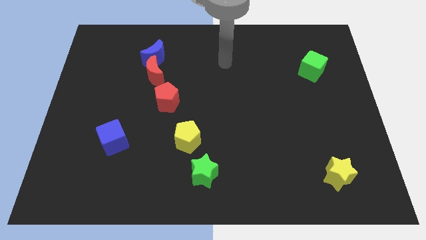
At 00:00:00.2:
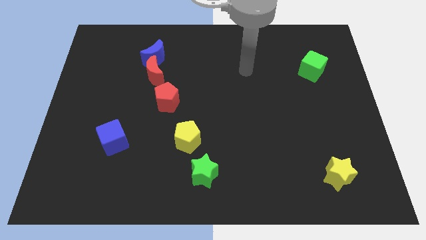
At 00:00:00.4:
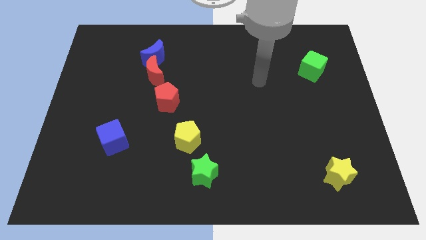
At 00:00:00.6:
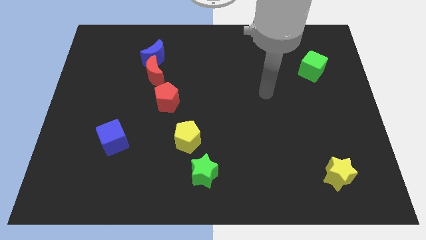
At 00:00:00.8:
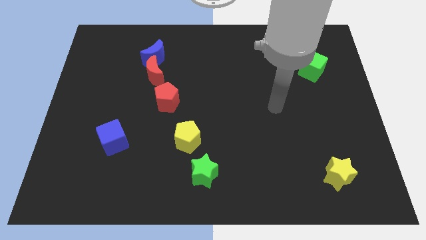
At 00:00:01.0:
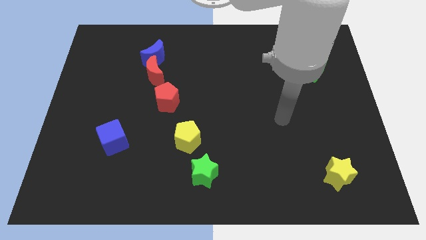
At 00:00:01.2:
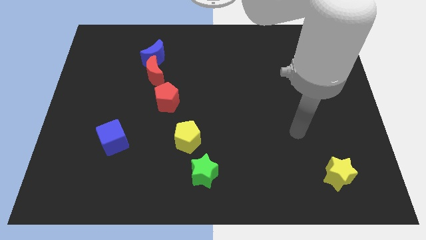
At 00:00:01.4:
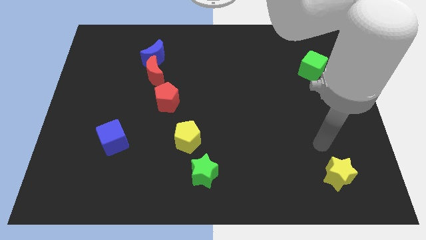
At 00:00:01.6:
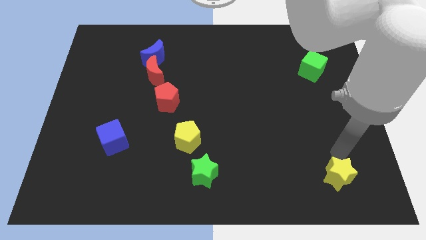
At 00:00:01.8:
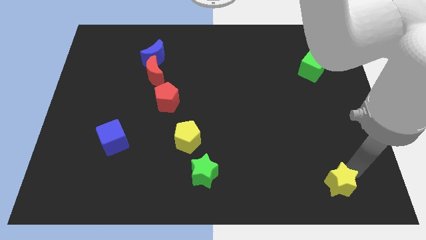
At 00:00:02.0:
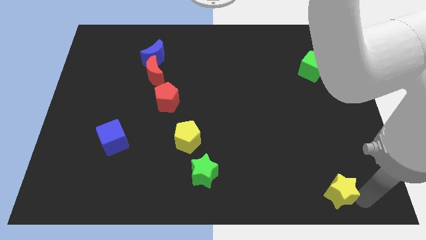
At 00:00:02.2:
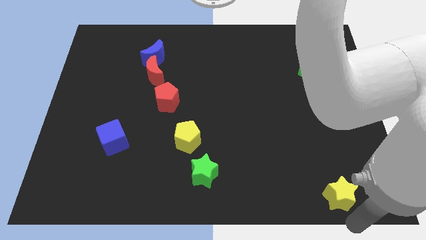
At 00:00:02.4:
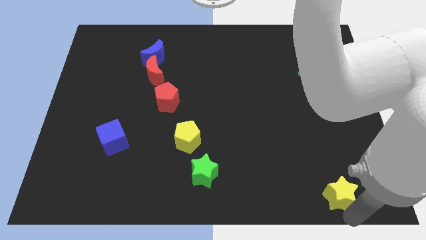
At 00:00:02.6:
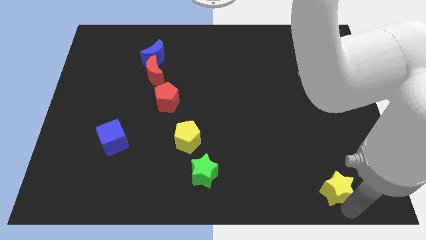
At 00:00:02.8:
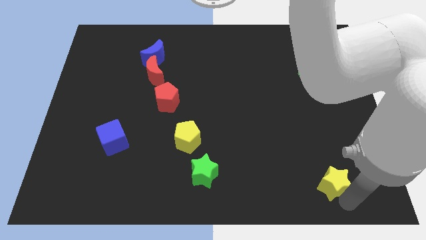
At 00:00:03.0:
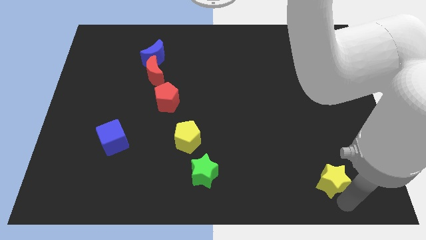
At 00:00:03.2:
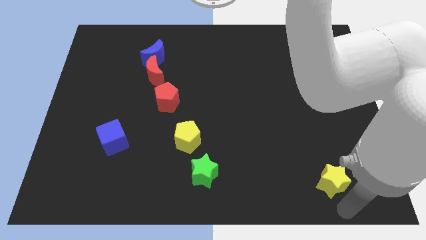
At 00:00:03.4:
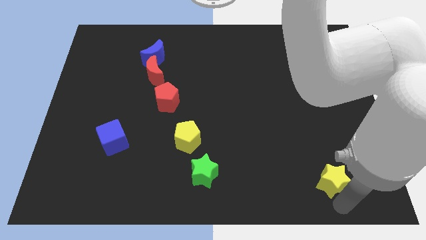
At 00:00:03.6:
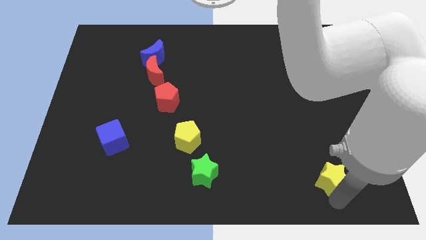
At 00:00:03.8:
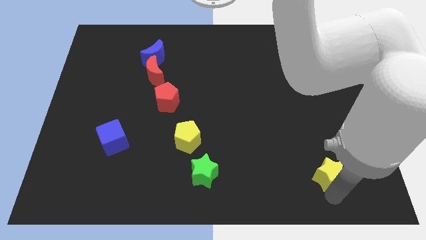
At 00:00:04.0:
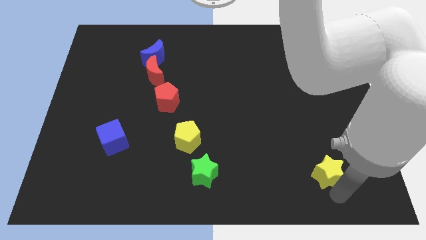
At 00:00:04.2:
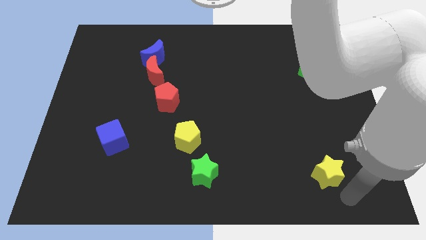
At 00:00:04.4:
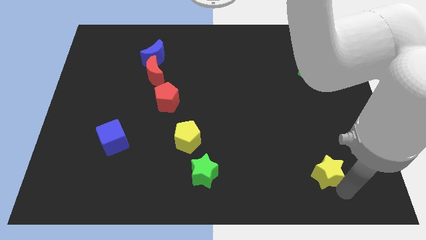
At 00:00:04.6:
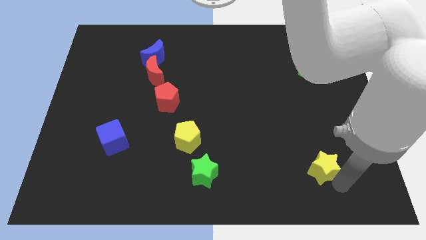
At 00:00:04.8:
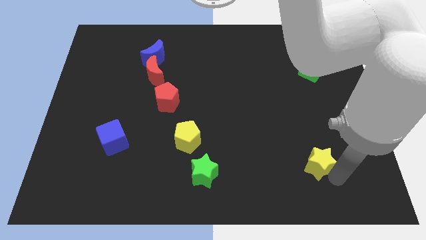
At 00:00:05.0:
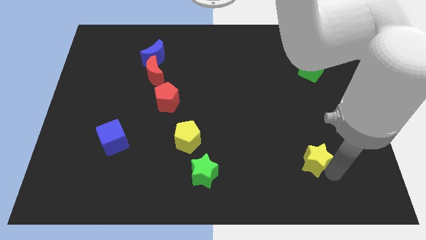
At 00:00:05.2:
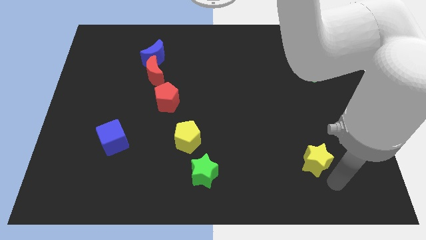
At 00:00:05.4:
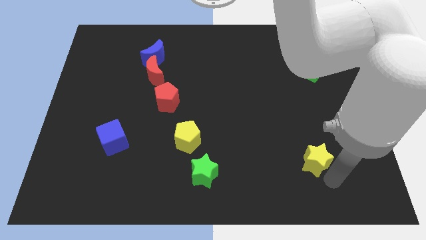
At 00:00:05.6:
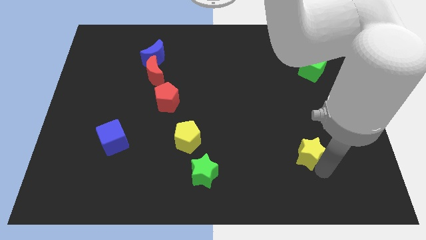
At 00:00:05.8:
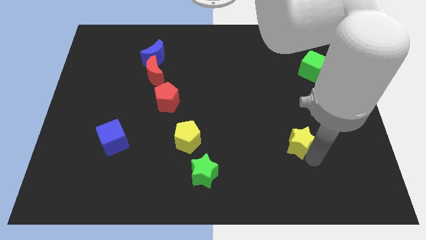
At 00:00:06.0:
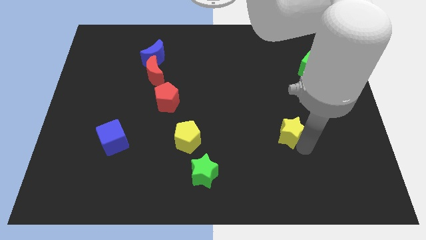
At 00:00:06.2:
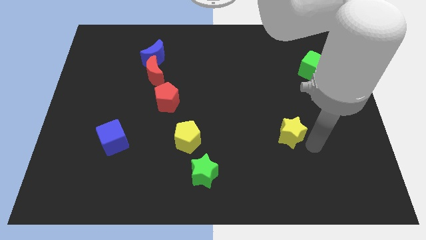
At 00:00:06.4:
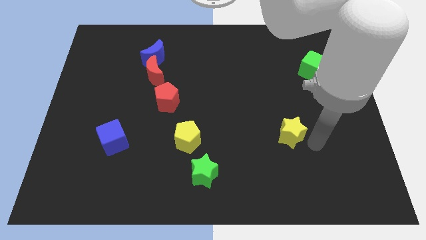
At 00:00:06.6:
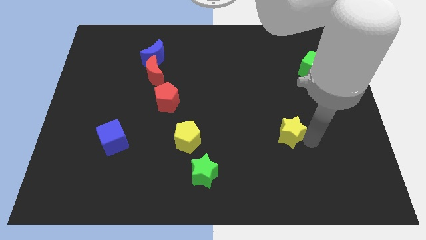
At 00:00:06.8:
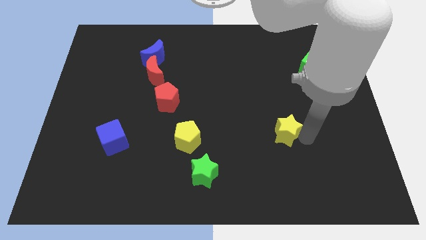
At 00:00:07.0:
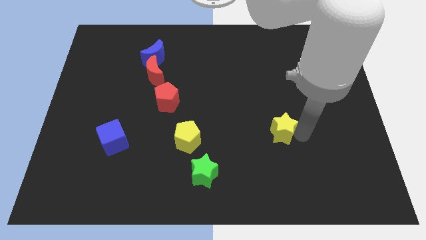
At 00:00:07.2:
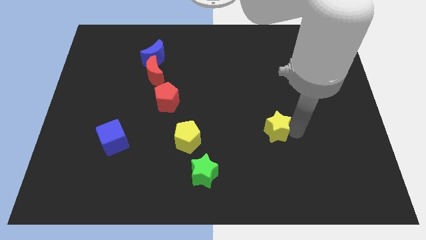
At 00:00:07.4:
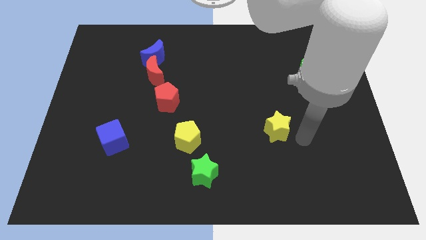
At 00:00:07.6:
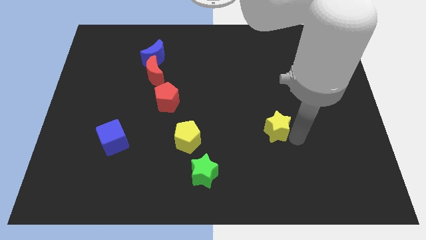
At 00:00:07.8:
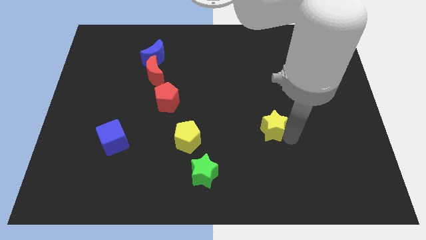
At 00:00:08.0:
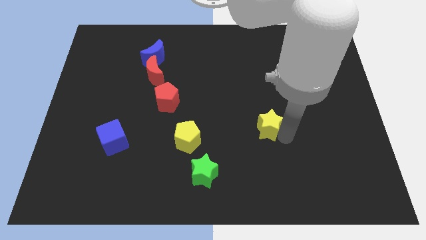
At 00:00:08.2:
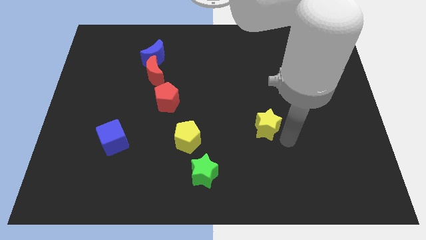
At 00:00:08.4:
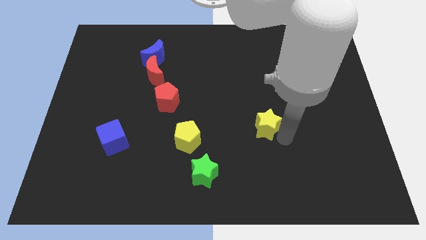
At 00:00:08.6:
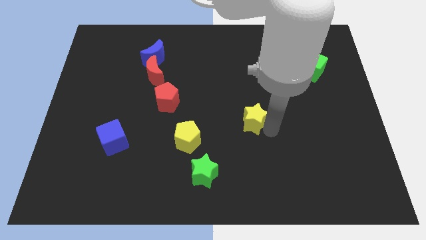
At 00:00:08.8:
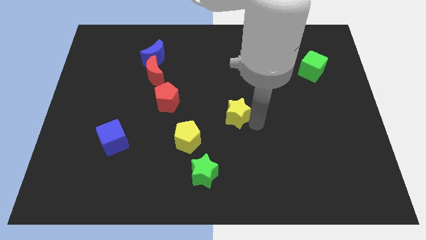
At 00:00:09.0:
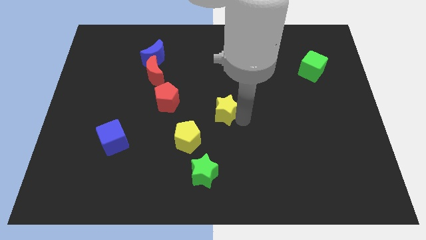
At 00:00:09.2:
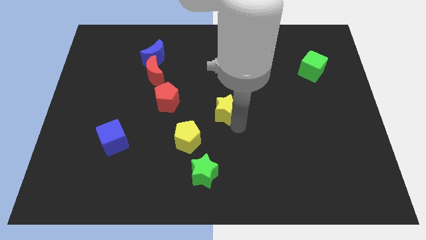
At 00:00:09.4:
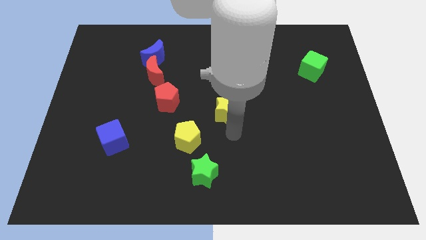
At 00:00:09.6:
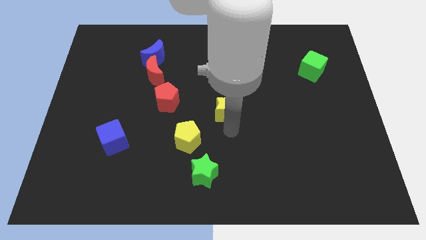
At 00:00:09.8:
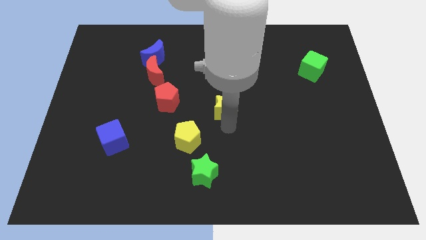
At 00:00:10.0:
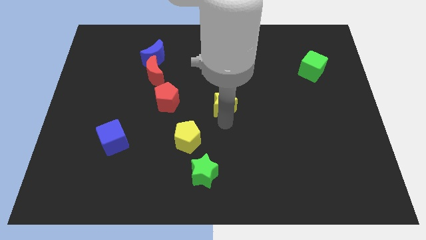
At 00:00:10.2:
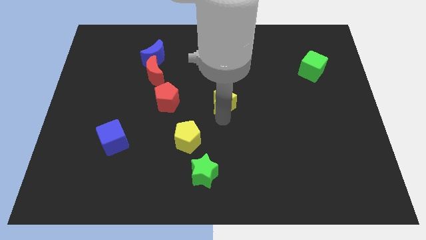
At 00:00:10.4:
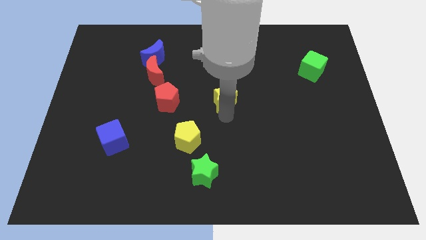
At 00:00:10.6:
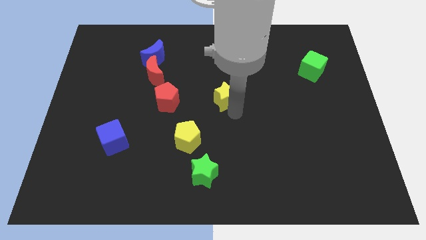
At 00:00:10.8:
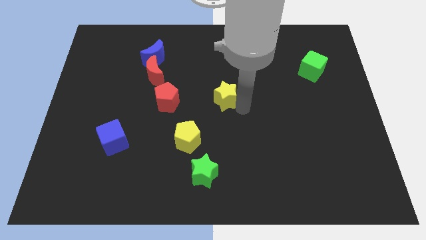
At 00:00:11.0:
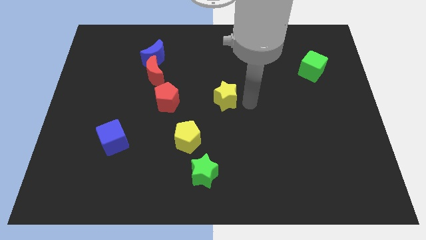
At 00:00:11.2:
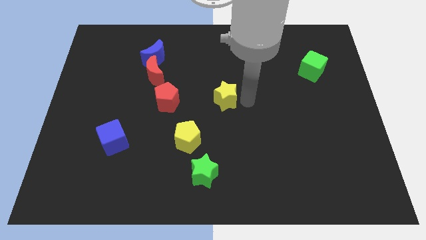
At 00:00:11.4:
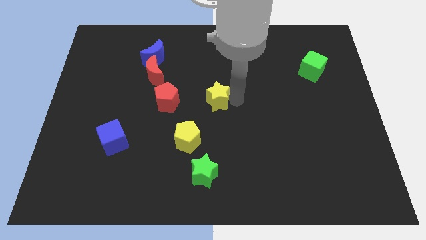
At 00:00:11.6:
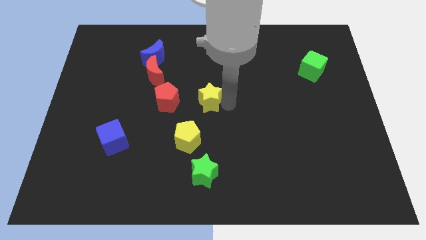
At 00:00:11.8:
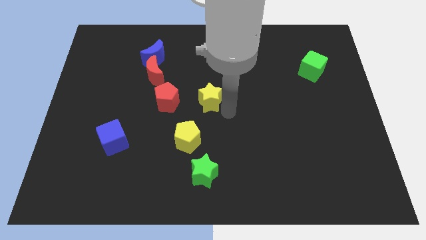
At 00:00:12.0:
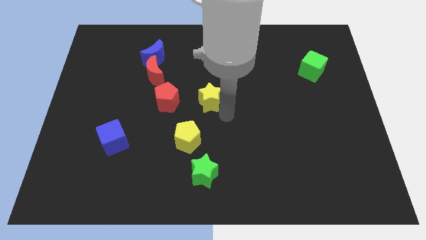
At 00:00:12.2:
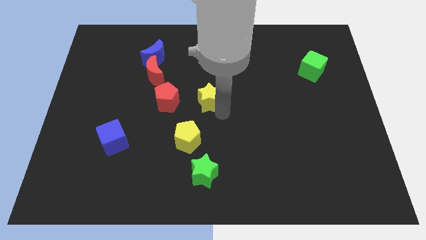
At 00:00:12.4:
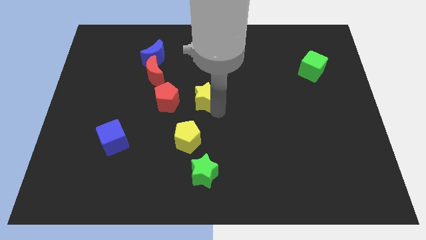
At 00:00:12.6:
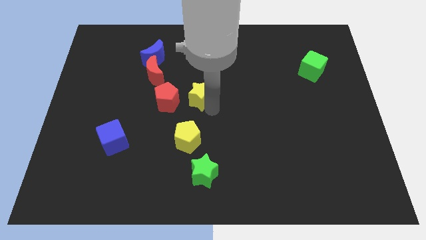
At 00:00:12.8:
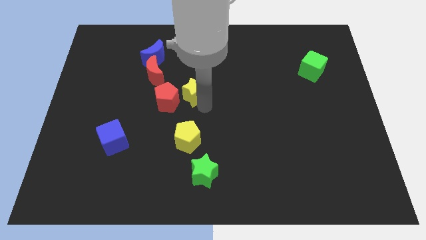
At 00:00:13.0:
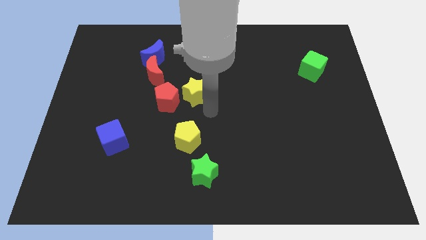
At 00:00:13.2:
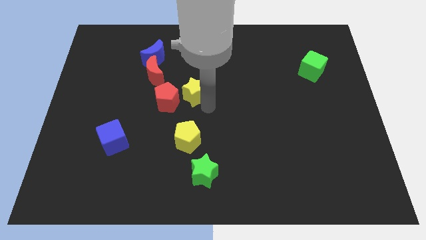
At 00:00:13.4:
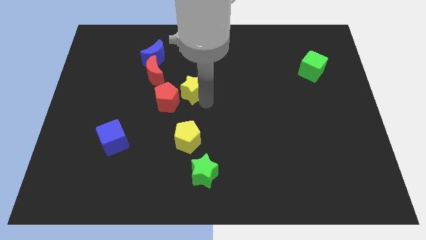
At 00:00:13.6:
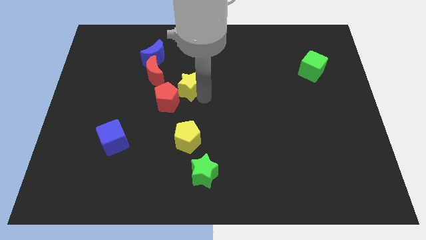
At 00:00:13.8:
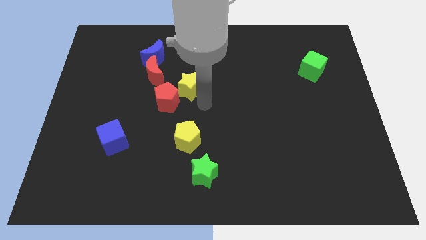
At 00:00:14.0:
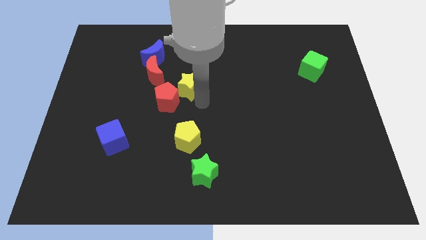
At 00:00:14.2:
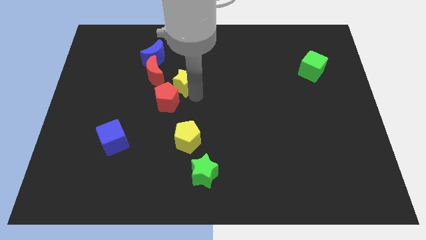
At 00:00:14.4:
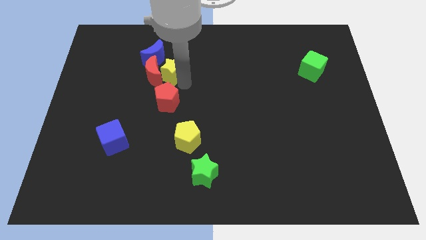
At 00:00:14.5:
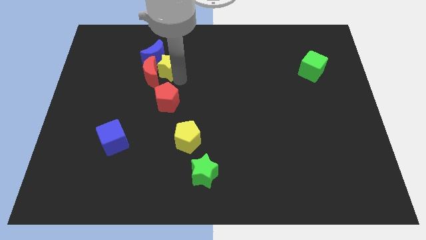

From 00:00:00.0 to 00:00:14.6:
put the yellow star towards the blue moon
